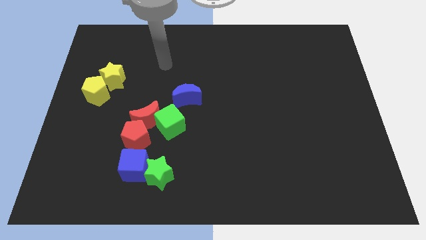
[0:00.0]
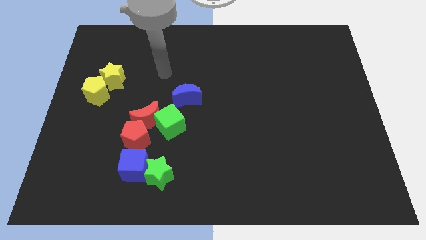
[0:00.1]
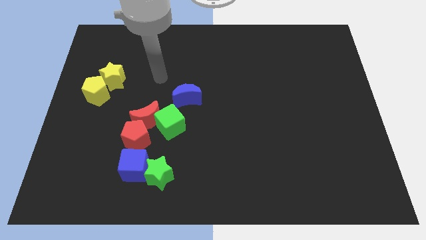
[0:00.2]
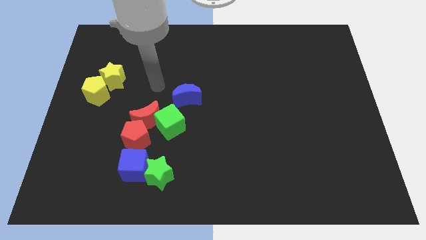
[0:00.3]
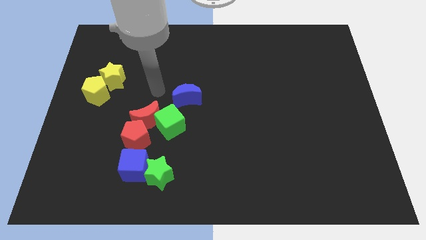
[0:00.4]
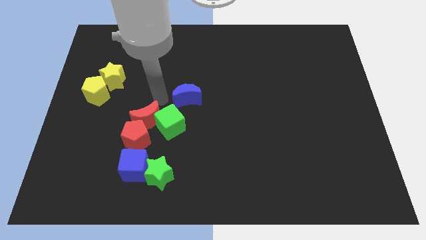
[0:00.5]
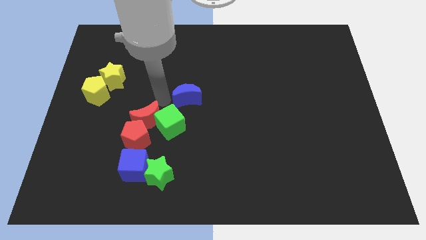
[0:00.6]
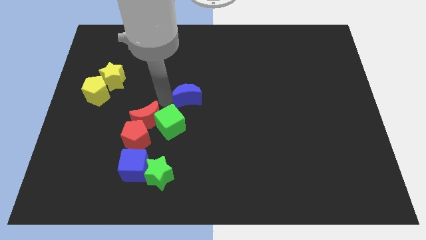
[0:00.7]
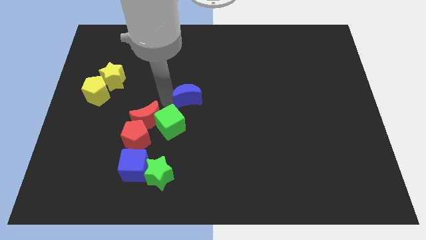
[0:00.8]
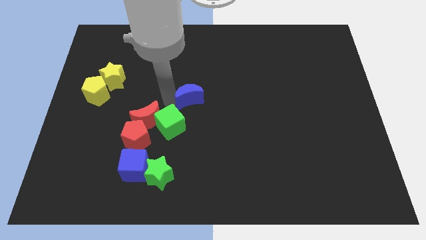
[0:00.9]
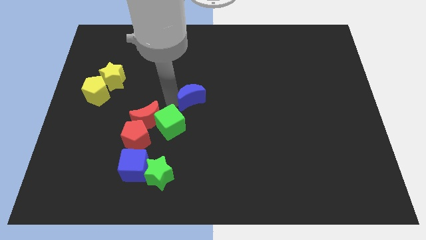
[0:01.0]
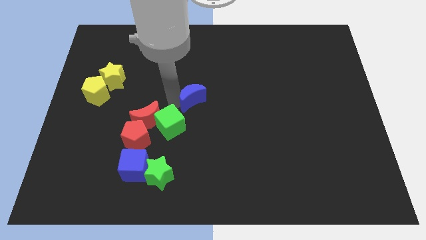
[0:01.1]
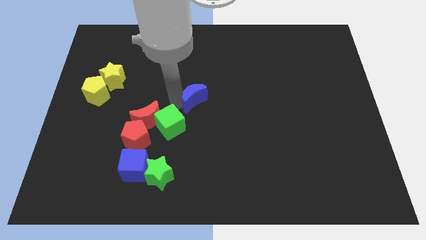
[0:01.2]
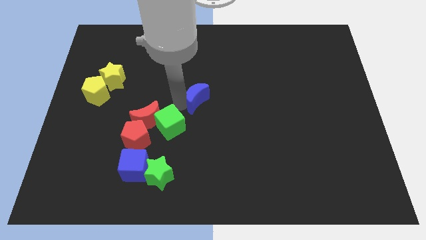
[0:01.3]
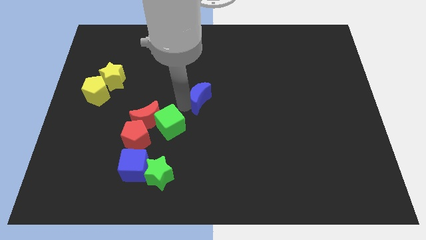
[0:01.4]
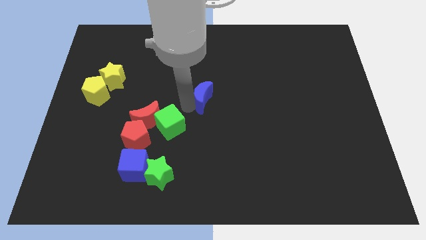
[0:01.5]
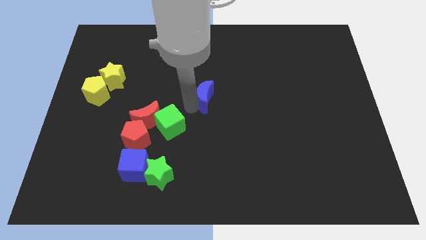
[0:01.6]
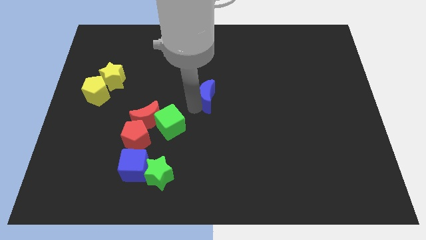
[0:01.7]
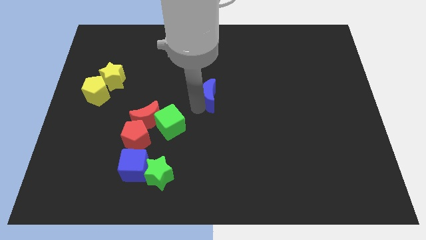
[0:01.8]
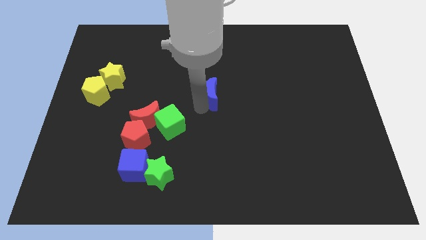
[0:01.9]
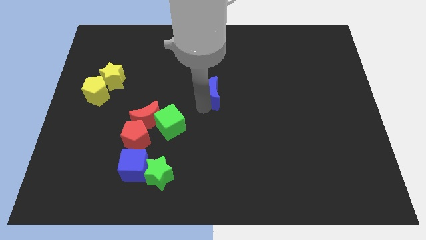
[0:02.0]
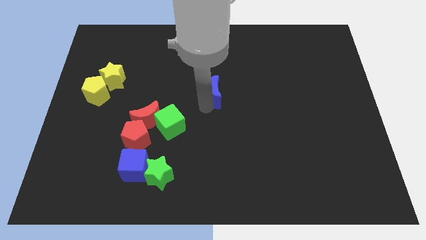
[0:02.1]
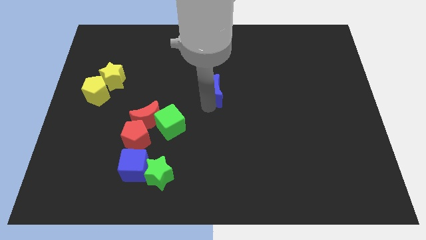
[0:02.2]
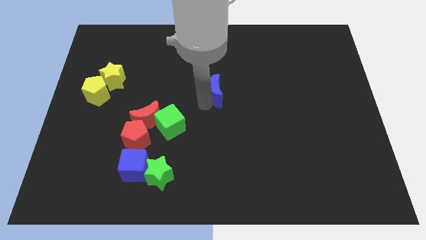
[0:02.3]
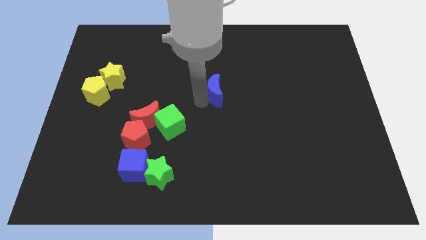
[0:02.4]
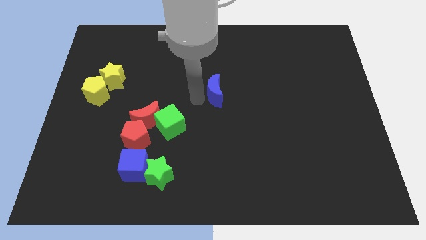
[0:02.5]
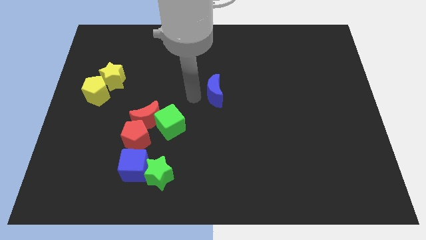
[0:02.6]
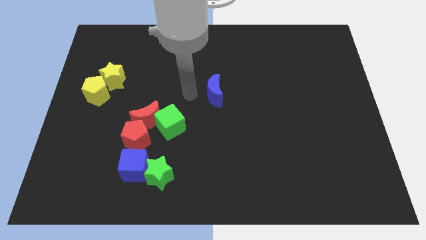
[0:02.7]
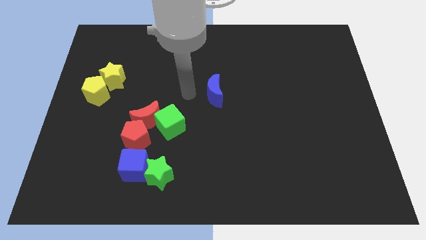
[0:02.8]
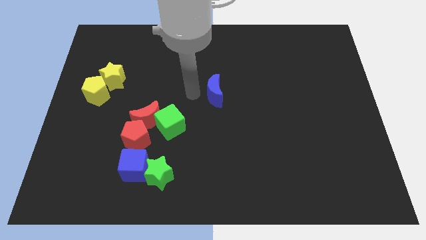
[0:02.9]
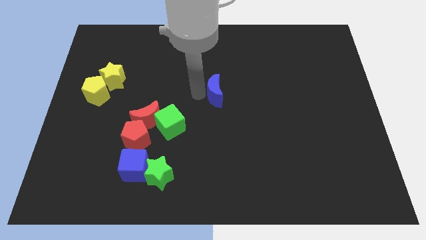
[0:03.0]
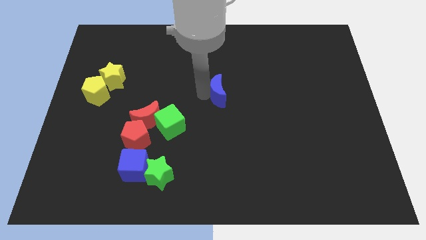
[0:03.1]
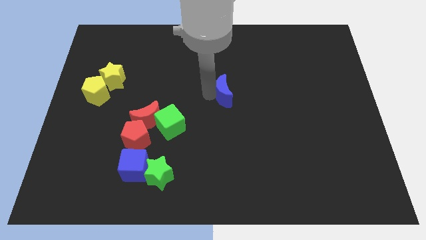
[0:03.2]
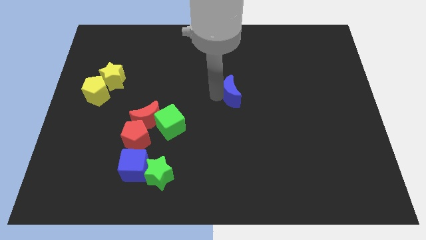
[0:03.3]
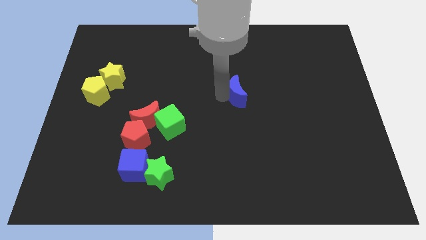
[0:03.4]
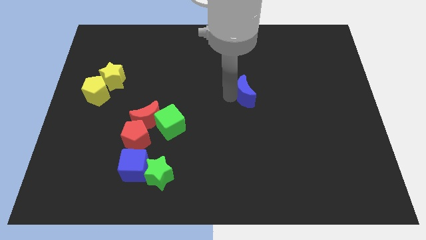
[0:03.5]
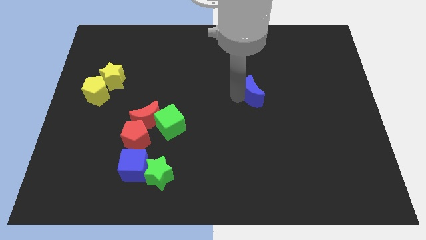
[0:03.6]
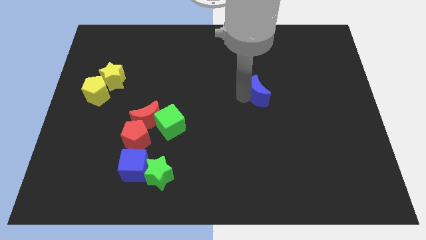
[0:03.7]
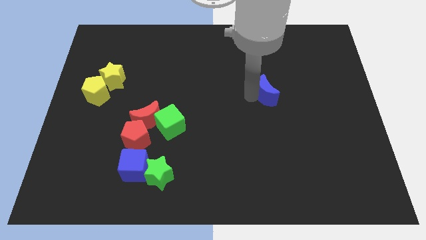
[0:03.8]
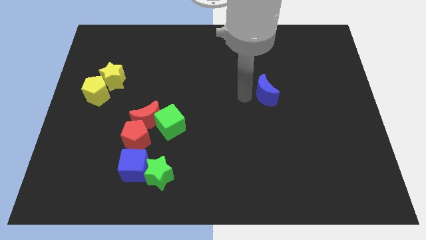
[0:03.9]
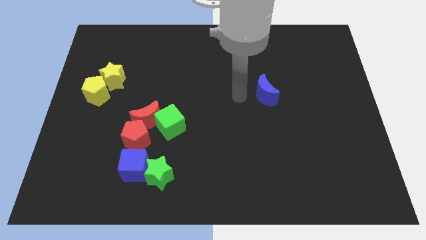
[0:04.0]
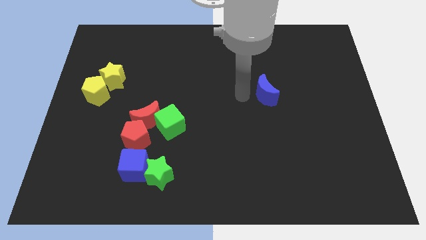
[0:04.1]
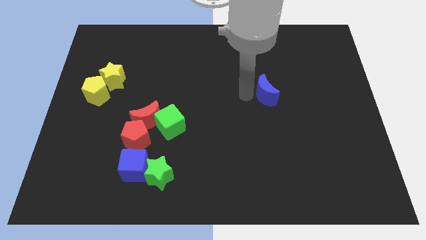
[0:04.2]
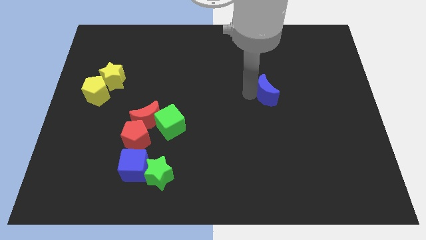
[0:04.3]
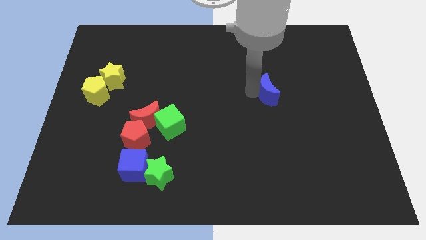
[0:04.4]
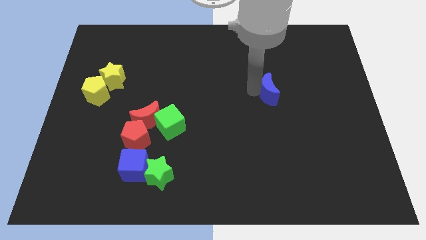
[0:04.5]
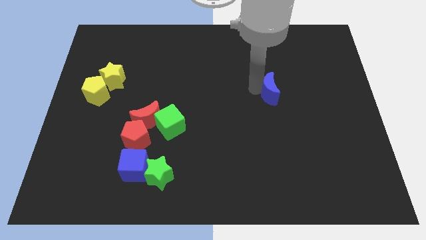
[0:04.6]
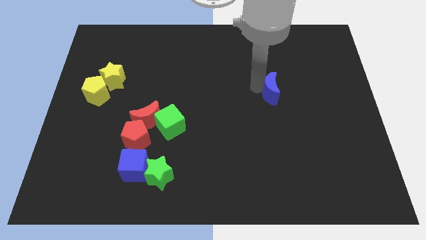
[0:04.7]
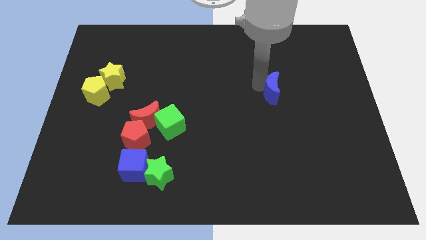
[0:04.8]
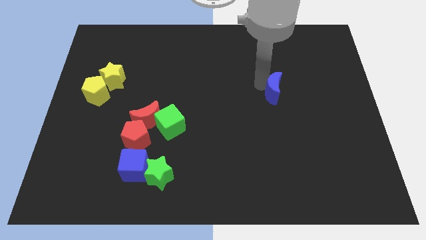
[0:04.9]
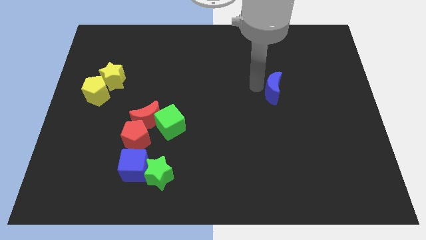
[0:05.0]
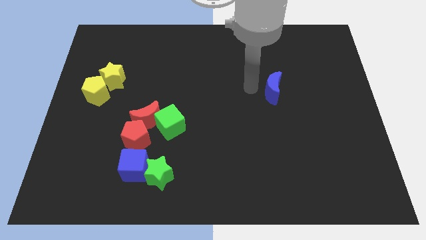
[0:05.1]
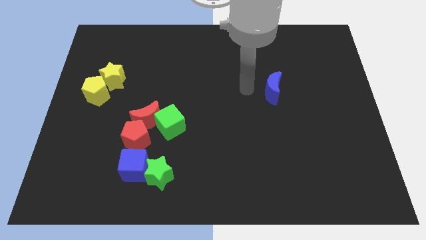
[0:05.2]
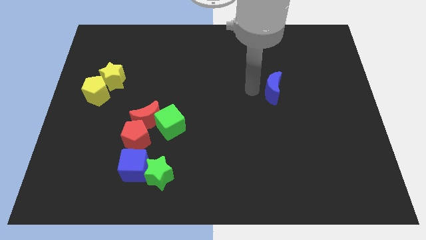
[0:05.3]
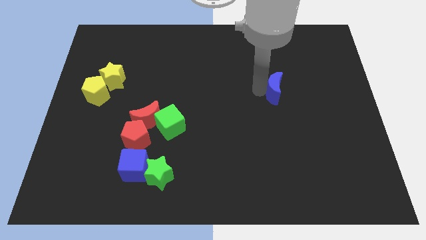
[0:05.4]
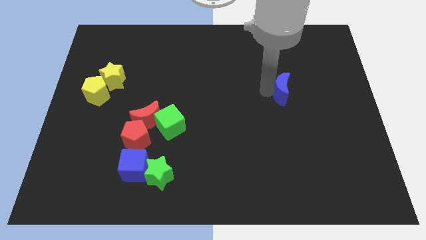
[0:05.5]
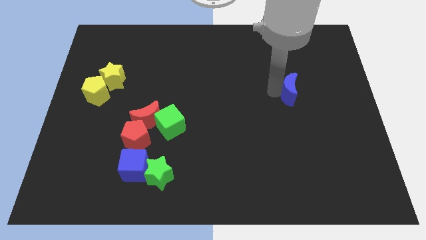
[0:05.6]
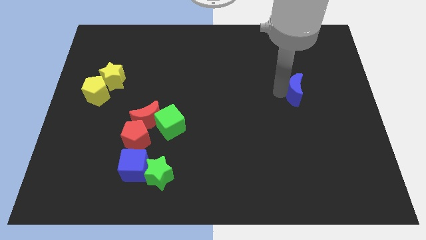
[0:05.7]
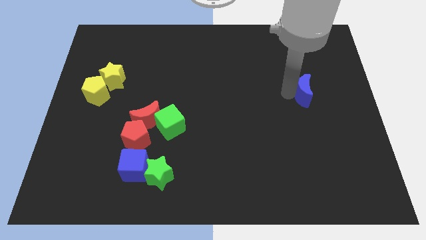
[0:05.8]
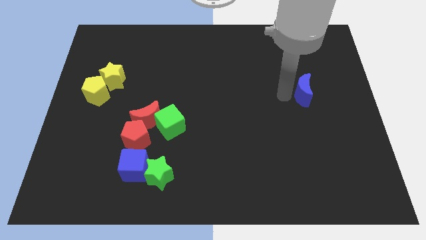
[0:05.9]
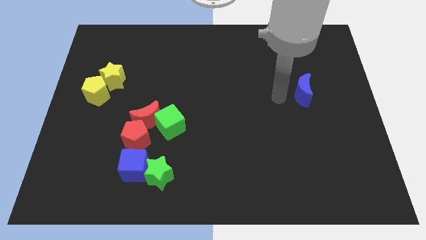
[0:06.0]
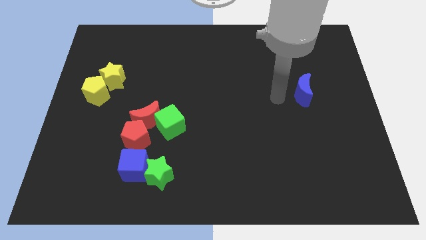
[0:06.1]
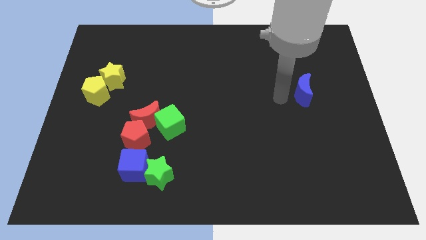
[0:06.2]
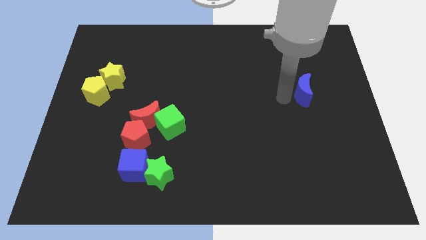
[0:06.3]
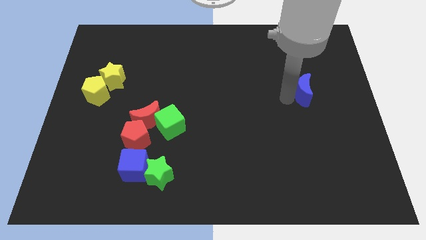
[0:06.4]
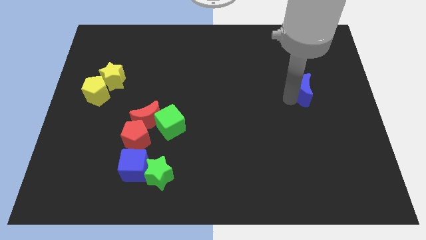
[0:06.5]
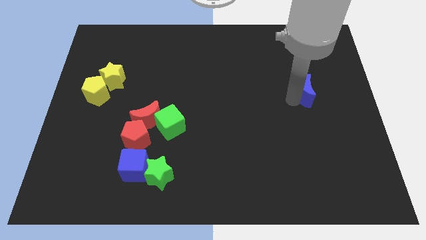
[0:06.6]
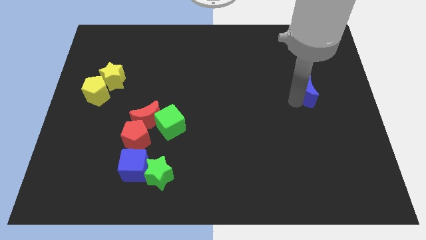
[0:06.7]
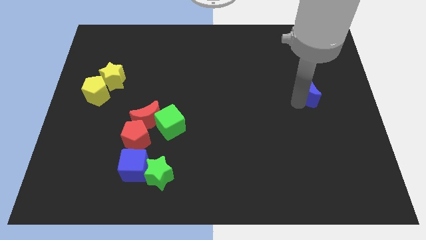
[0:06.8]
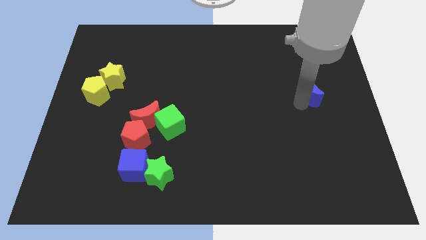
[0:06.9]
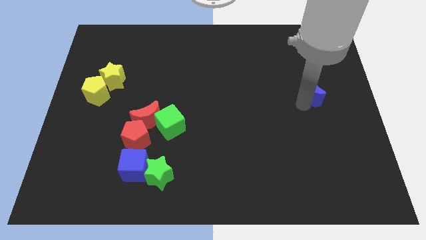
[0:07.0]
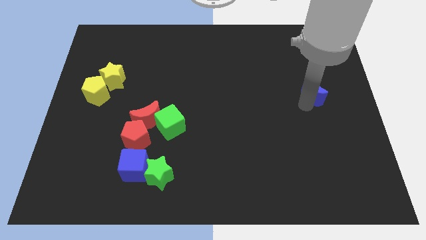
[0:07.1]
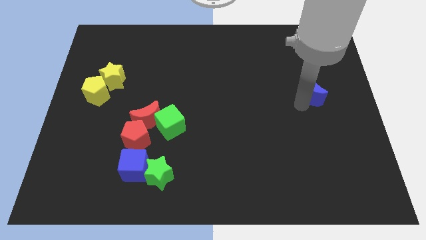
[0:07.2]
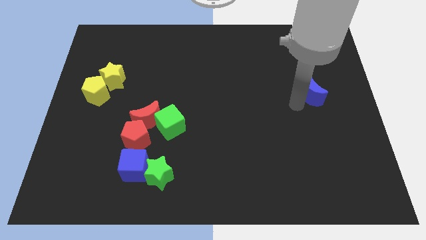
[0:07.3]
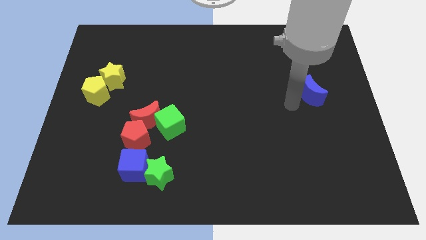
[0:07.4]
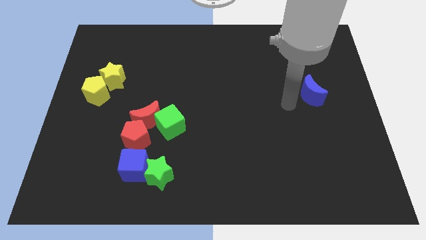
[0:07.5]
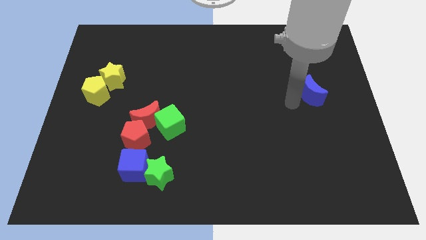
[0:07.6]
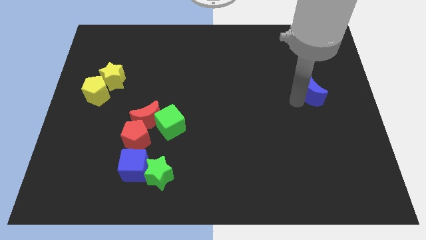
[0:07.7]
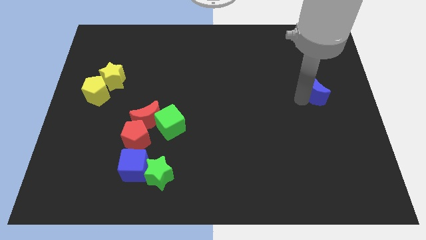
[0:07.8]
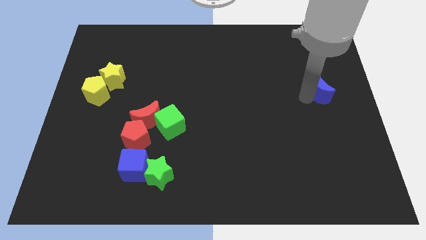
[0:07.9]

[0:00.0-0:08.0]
move the blue moon to the right side of the board
